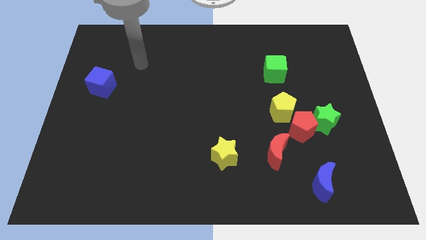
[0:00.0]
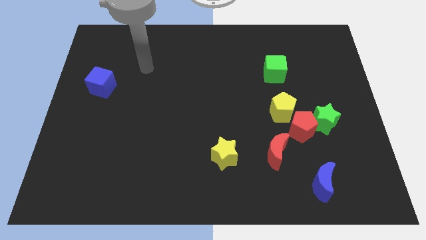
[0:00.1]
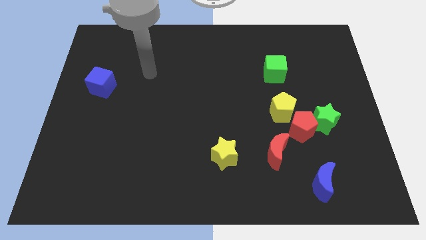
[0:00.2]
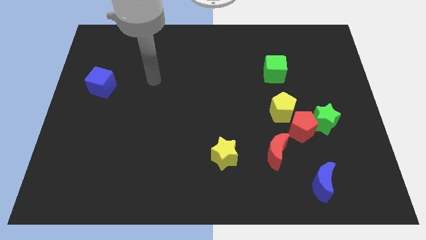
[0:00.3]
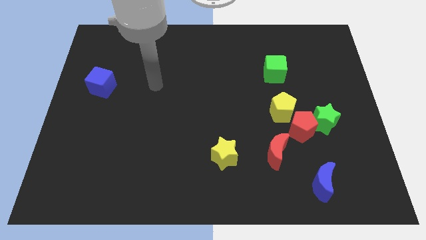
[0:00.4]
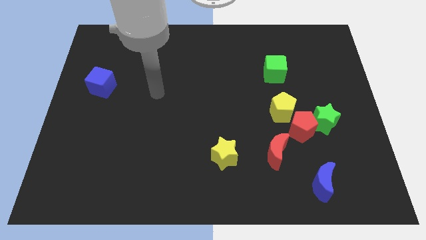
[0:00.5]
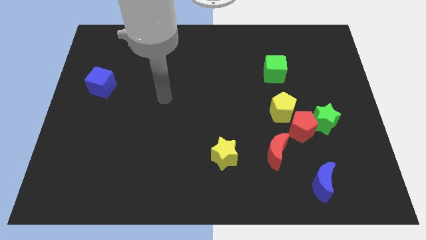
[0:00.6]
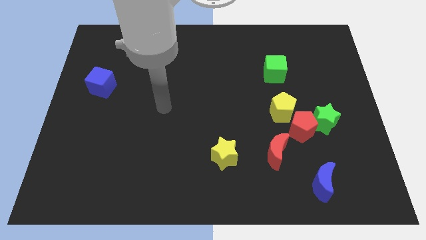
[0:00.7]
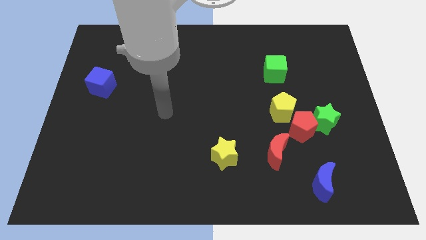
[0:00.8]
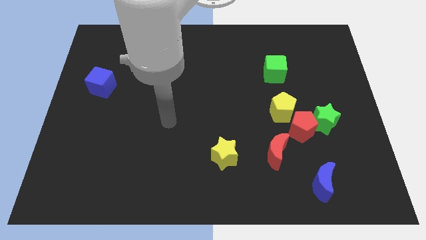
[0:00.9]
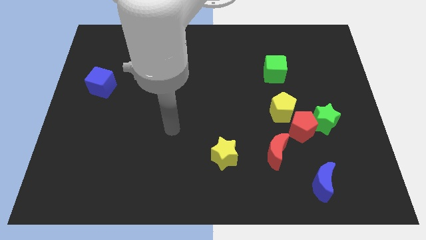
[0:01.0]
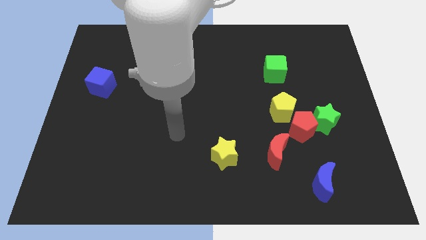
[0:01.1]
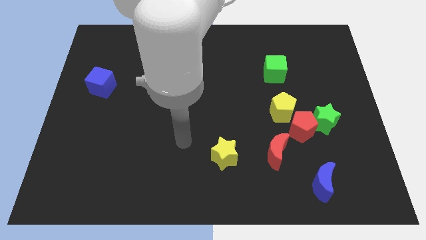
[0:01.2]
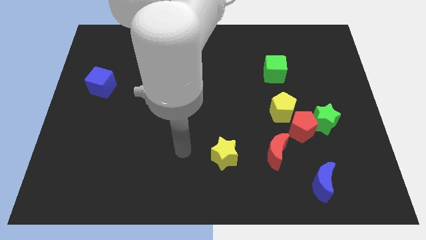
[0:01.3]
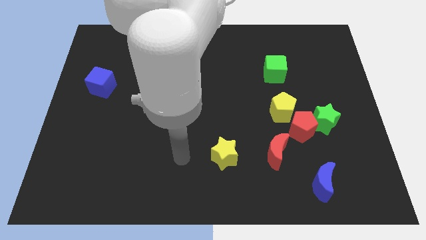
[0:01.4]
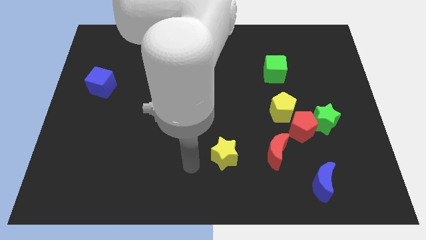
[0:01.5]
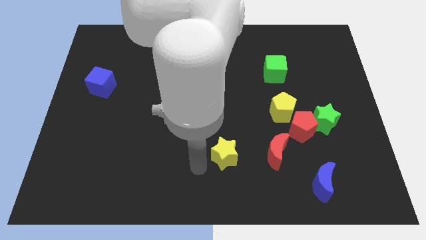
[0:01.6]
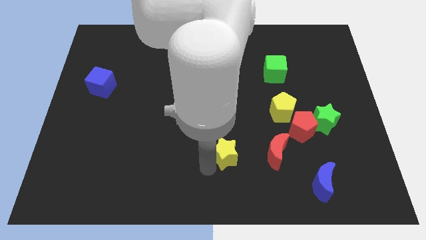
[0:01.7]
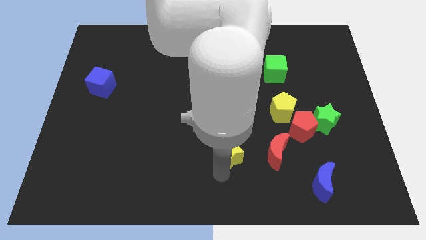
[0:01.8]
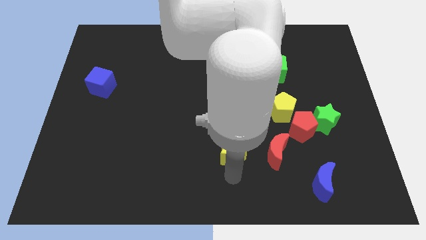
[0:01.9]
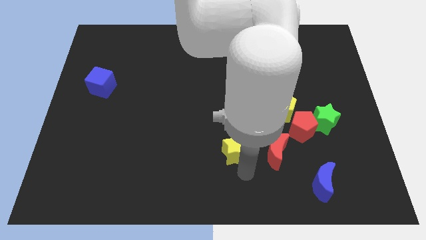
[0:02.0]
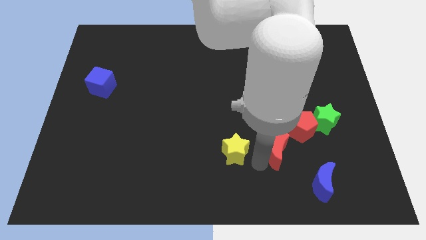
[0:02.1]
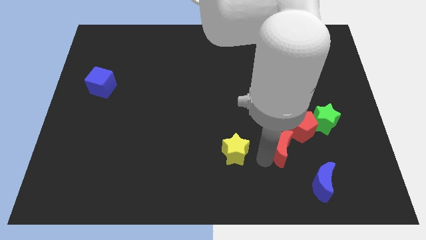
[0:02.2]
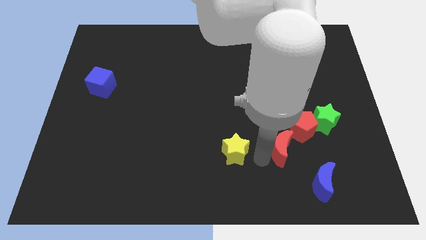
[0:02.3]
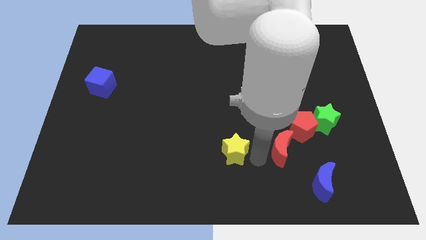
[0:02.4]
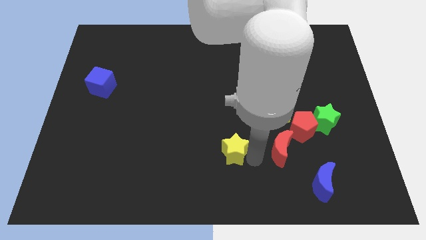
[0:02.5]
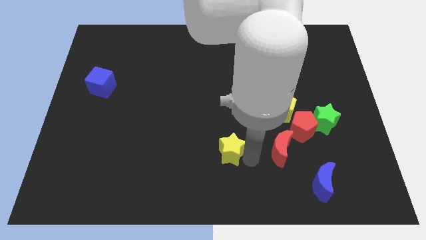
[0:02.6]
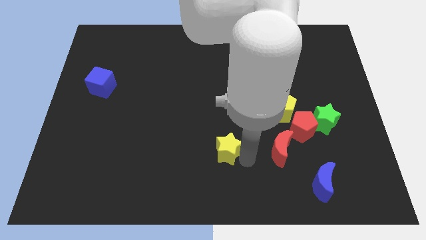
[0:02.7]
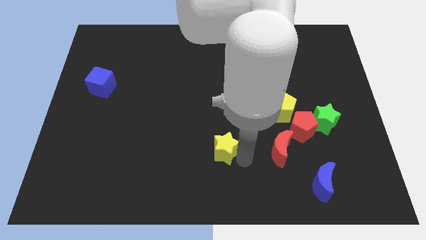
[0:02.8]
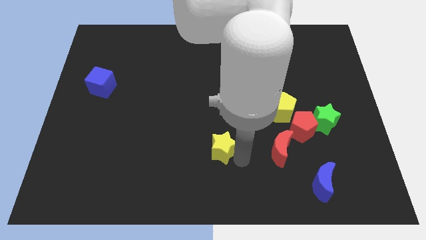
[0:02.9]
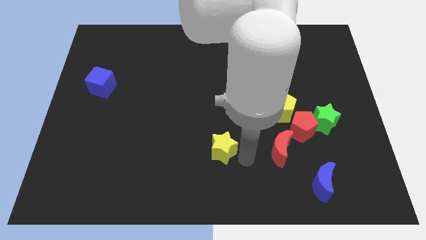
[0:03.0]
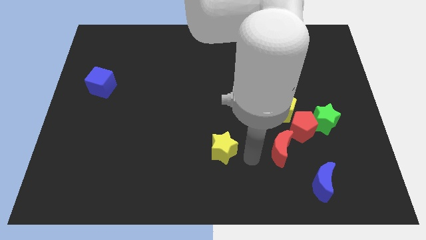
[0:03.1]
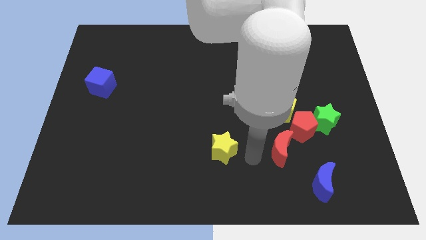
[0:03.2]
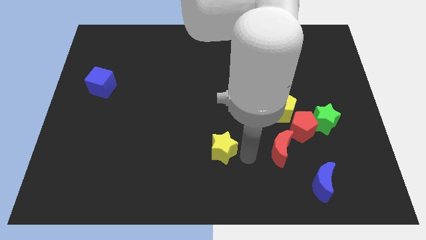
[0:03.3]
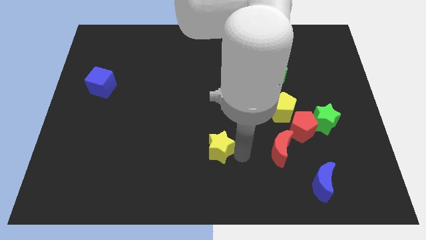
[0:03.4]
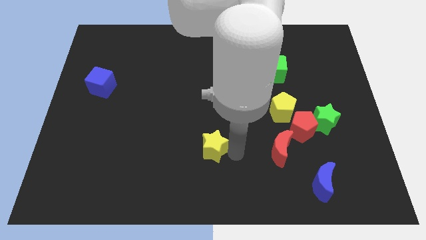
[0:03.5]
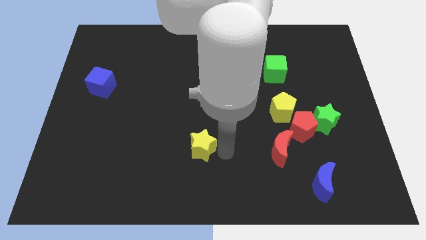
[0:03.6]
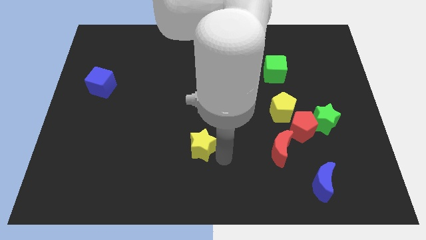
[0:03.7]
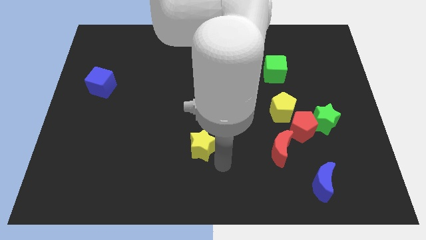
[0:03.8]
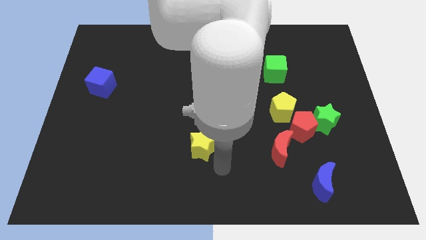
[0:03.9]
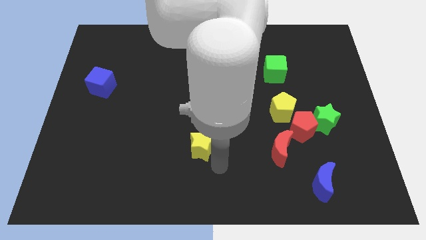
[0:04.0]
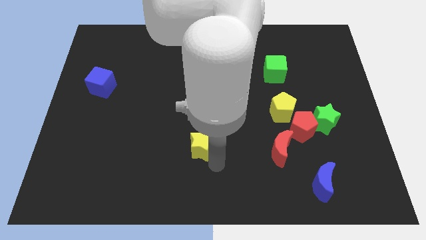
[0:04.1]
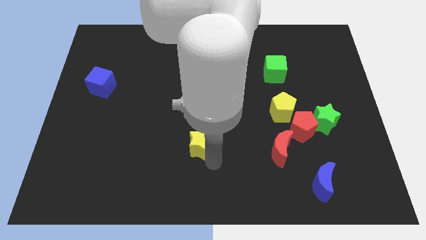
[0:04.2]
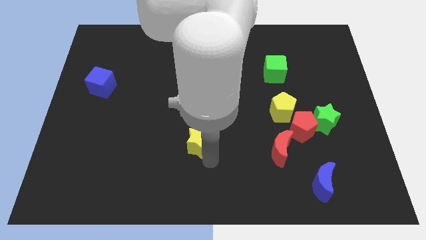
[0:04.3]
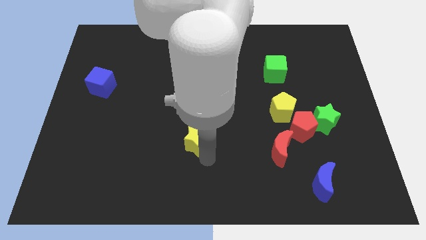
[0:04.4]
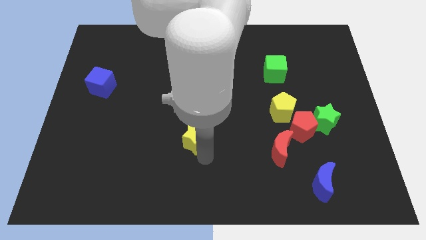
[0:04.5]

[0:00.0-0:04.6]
push the yellow star somewhat up and then left

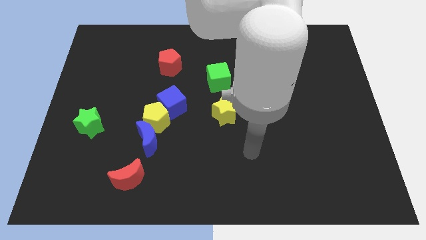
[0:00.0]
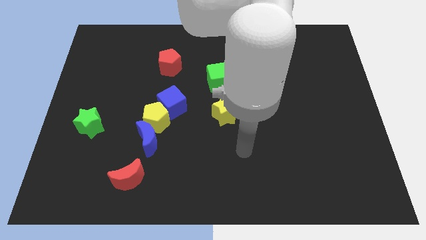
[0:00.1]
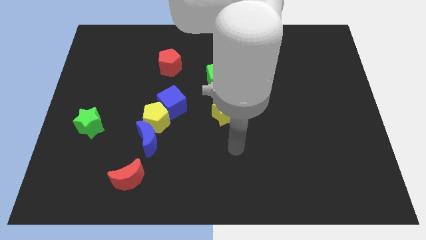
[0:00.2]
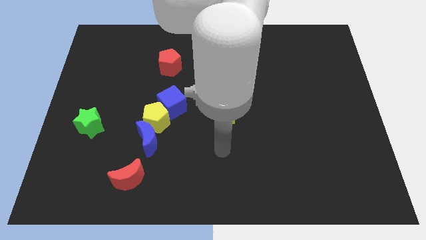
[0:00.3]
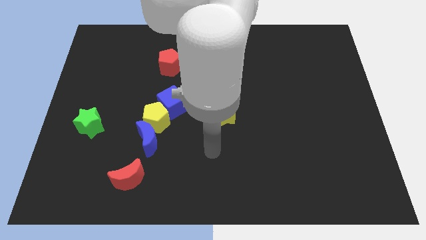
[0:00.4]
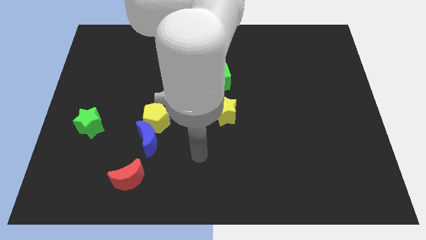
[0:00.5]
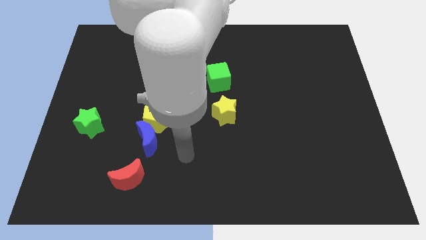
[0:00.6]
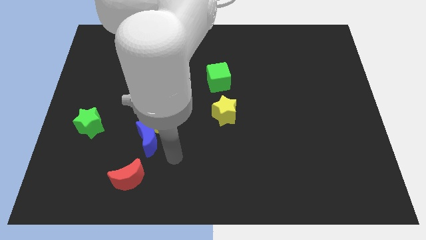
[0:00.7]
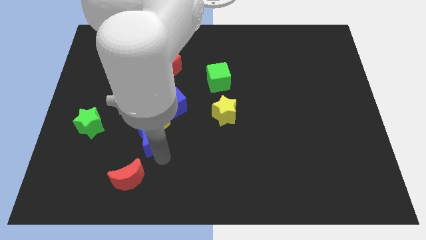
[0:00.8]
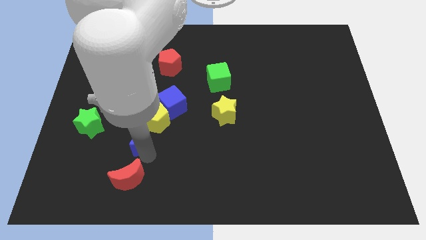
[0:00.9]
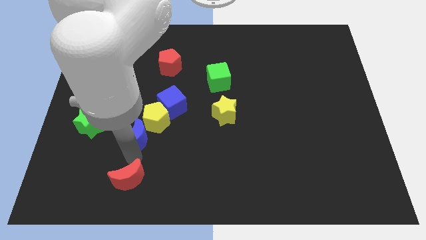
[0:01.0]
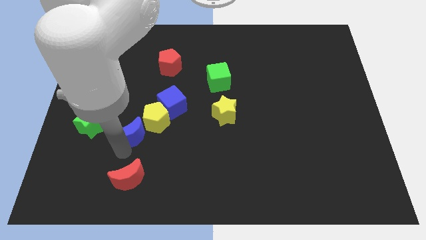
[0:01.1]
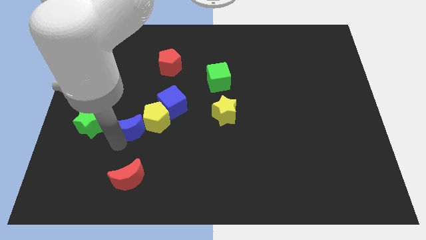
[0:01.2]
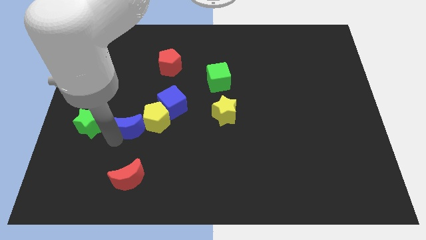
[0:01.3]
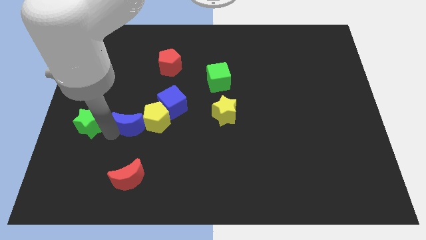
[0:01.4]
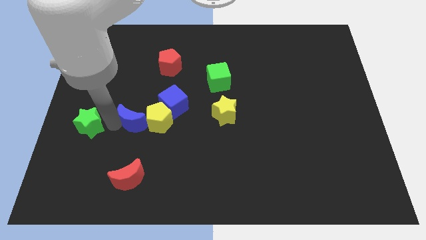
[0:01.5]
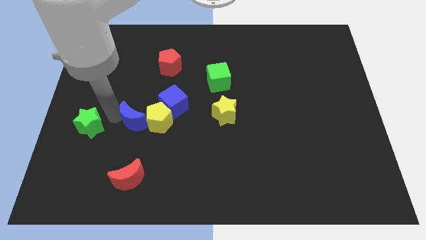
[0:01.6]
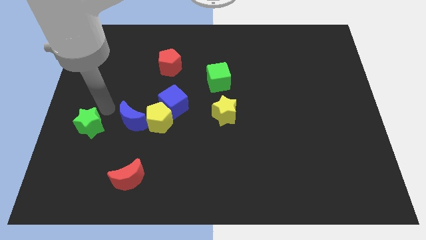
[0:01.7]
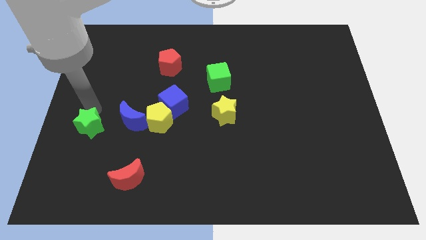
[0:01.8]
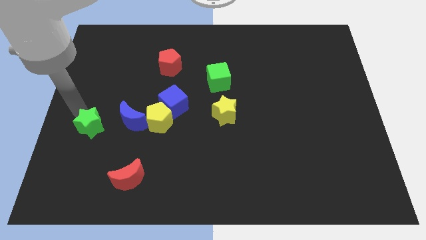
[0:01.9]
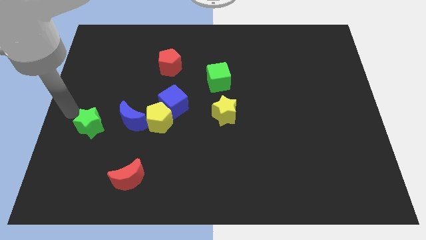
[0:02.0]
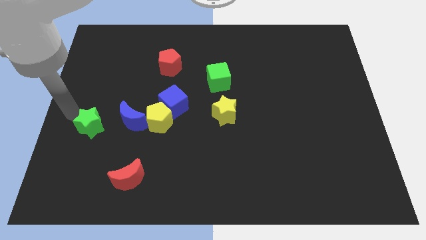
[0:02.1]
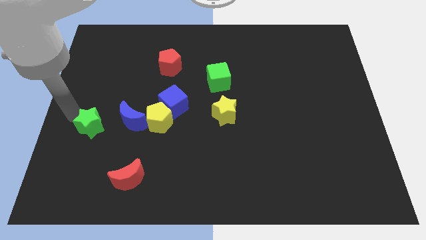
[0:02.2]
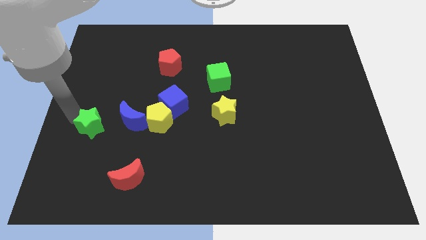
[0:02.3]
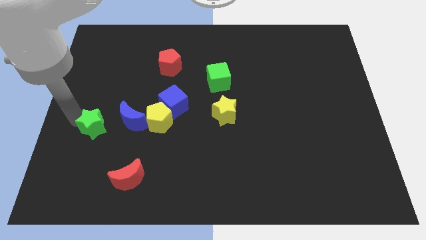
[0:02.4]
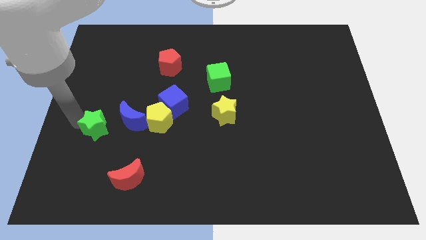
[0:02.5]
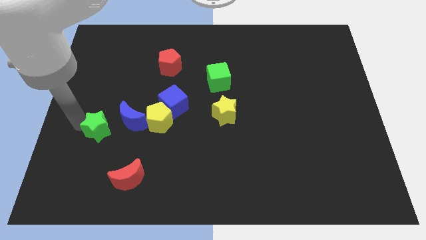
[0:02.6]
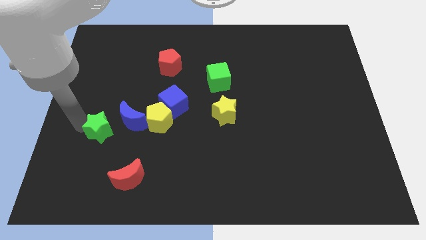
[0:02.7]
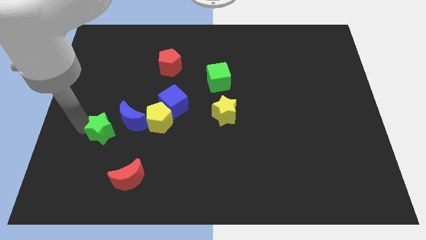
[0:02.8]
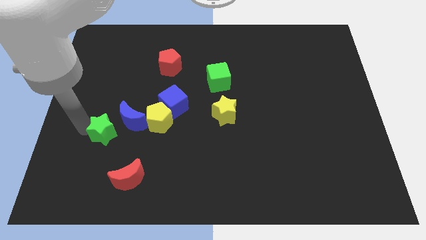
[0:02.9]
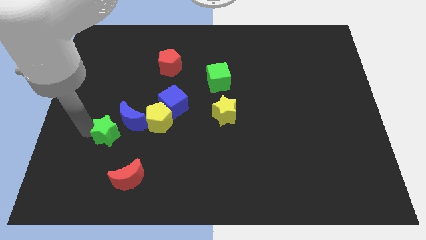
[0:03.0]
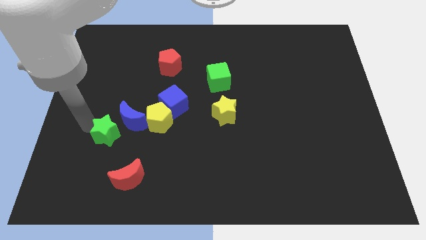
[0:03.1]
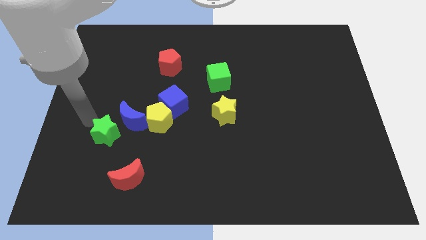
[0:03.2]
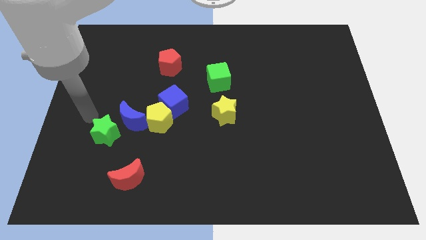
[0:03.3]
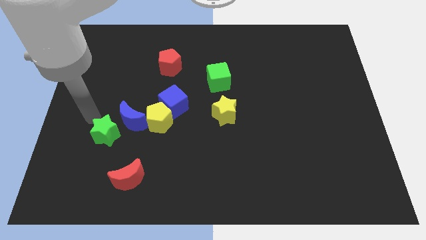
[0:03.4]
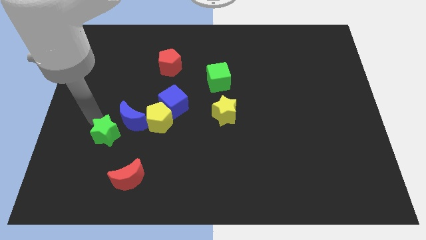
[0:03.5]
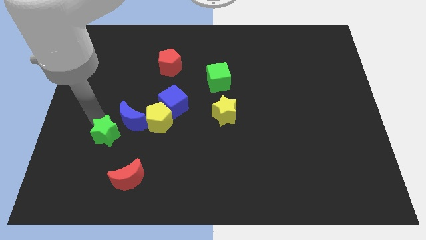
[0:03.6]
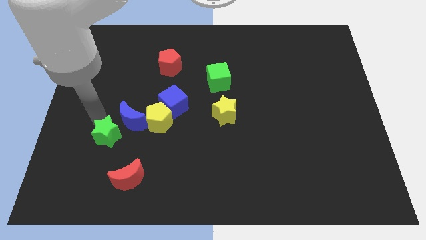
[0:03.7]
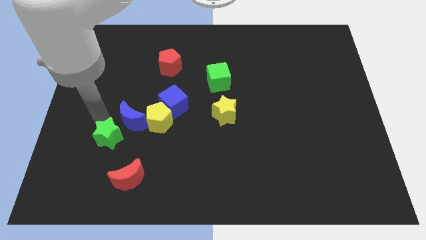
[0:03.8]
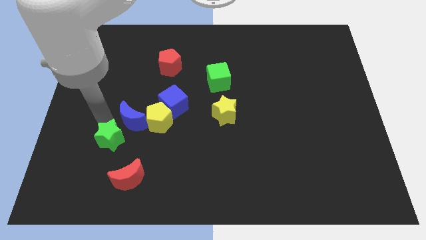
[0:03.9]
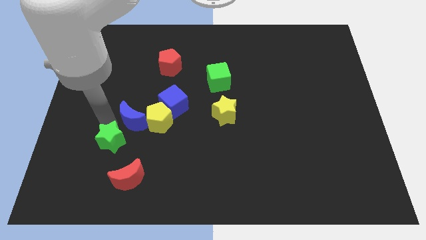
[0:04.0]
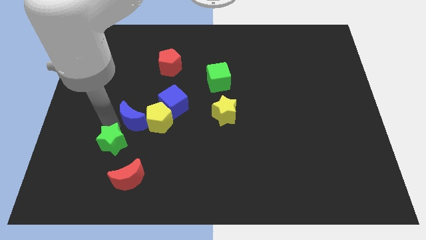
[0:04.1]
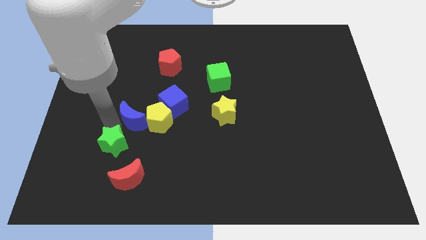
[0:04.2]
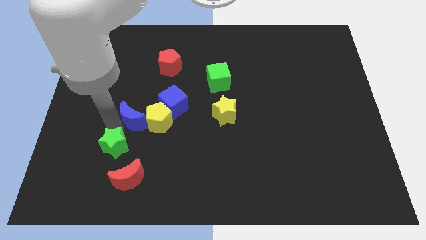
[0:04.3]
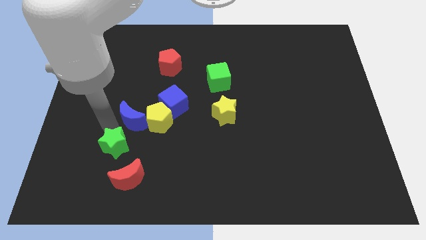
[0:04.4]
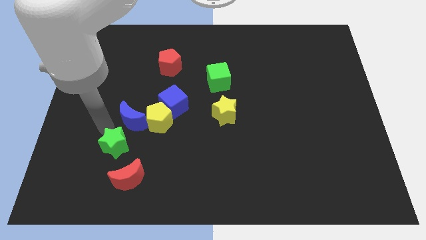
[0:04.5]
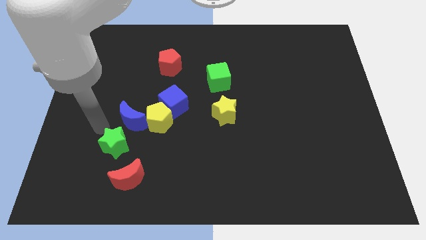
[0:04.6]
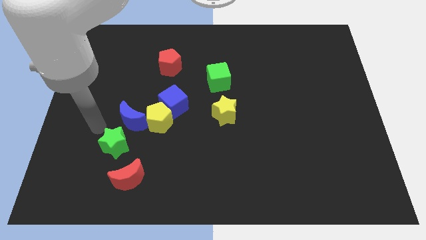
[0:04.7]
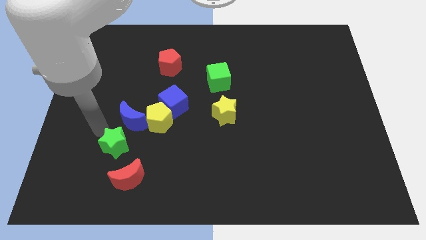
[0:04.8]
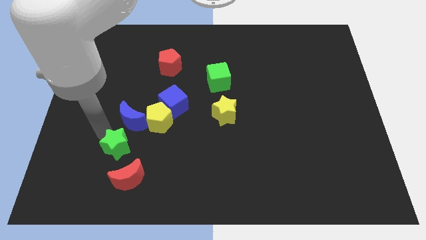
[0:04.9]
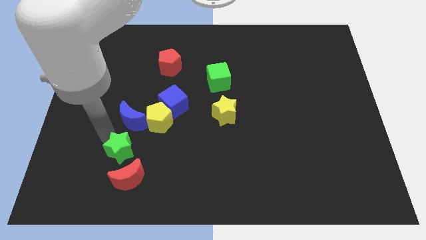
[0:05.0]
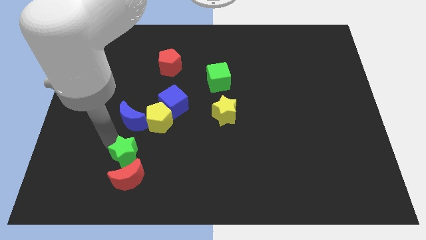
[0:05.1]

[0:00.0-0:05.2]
slide the green star right a little bit
